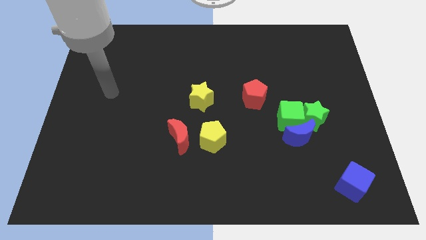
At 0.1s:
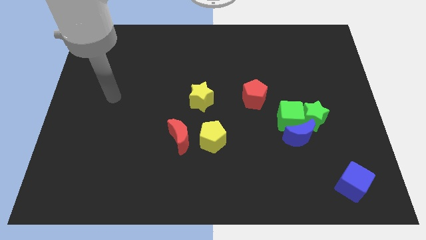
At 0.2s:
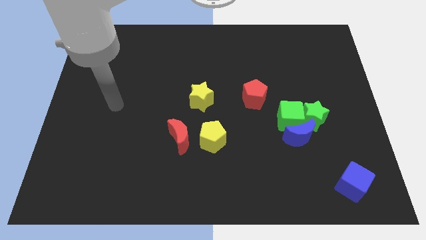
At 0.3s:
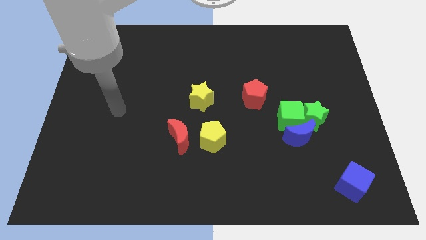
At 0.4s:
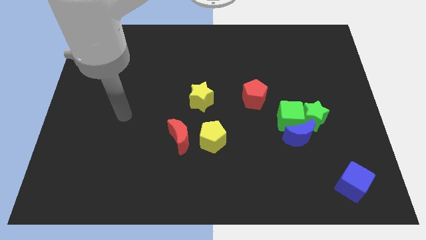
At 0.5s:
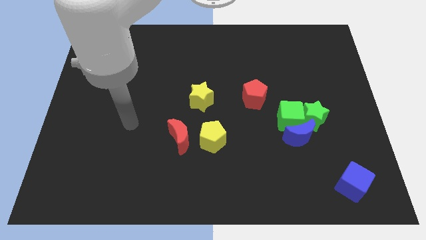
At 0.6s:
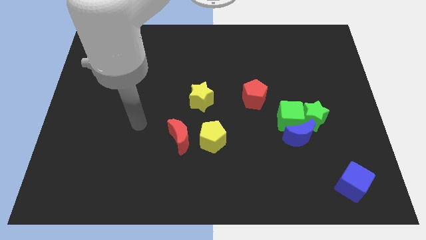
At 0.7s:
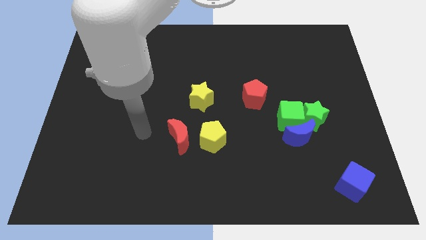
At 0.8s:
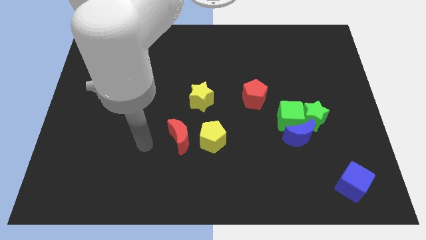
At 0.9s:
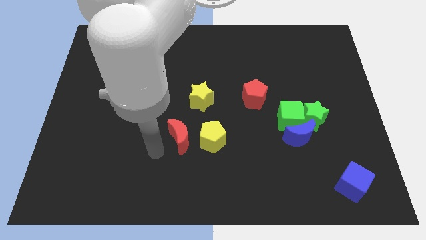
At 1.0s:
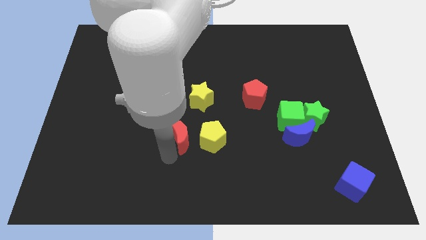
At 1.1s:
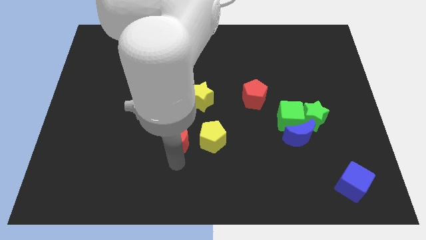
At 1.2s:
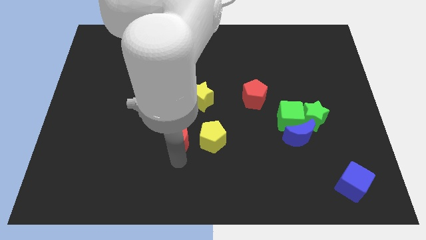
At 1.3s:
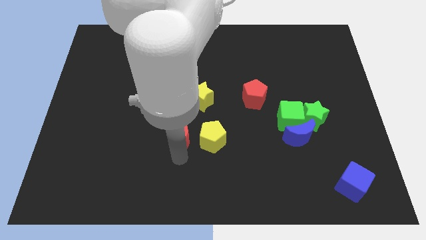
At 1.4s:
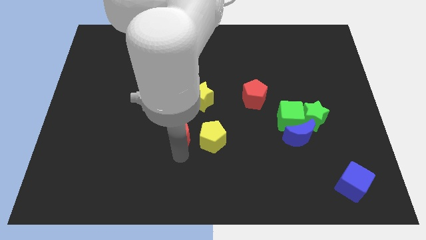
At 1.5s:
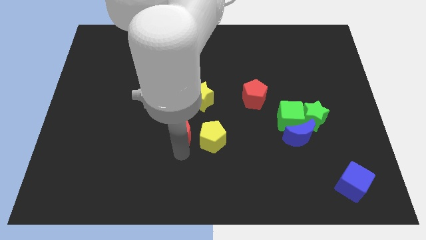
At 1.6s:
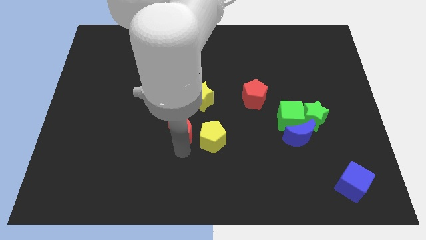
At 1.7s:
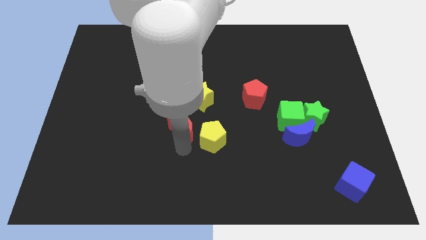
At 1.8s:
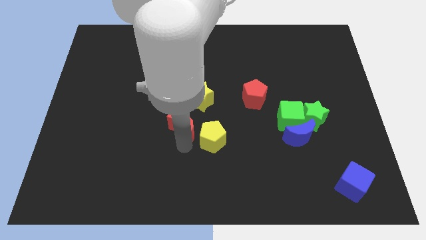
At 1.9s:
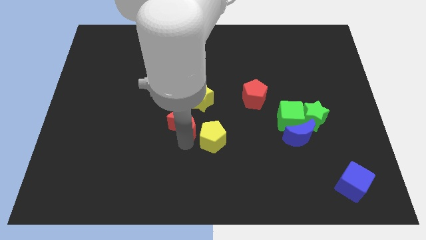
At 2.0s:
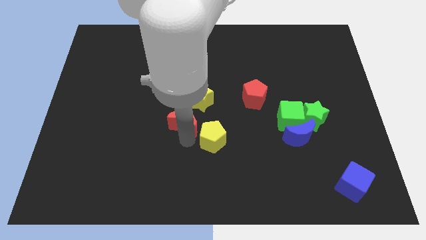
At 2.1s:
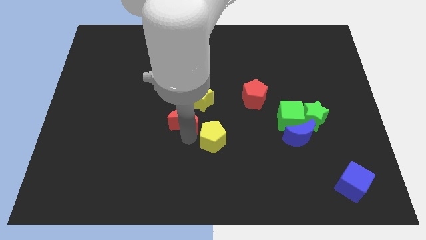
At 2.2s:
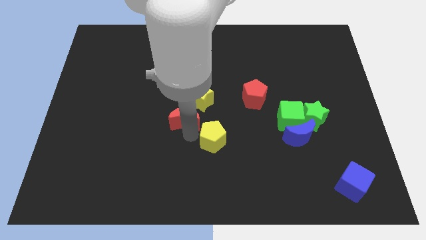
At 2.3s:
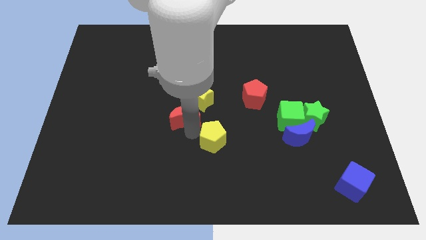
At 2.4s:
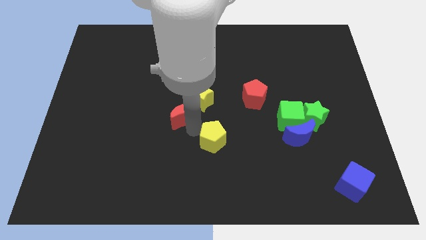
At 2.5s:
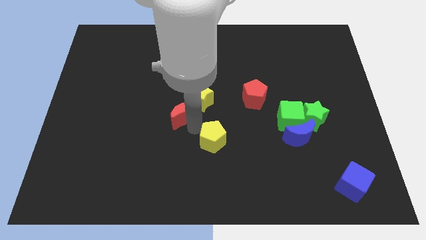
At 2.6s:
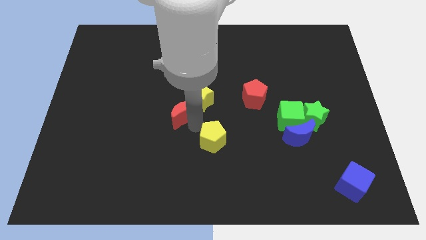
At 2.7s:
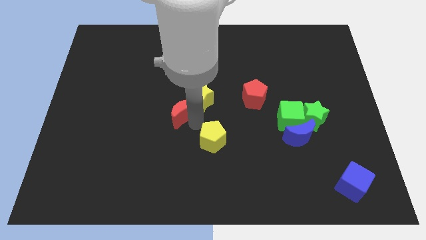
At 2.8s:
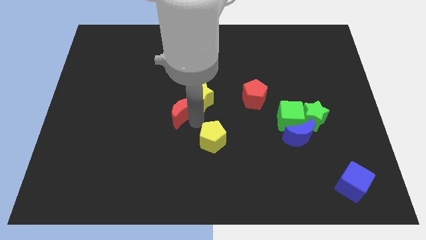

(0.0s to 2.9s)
slide the red moon a bit upwards

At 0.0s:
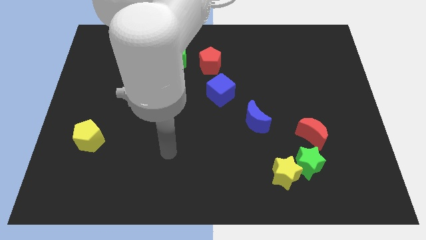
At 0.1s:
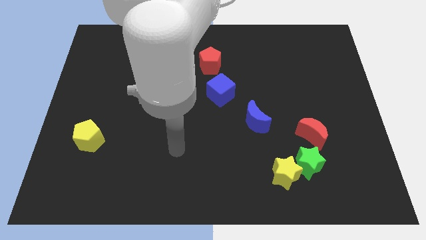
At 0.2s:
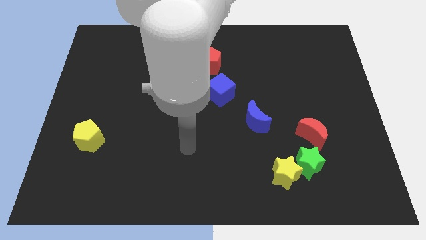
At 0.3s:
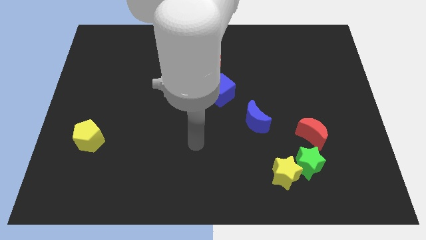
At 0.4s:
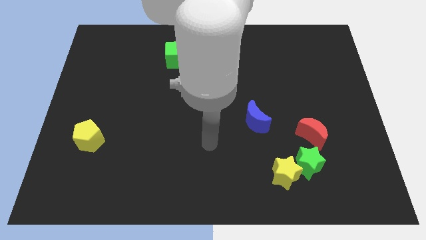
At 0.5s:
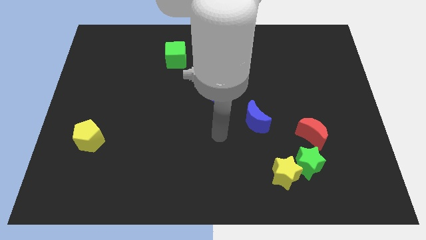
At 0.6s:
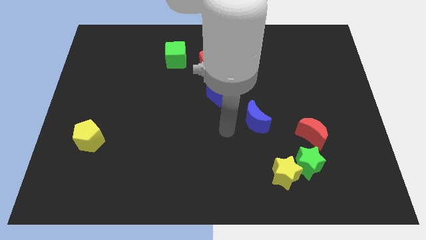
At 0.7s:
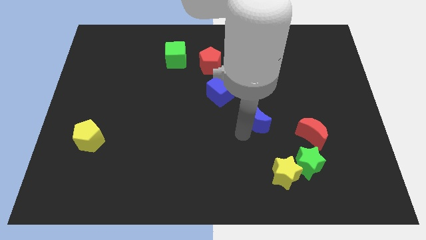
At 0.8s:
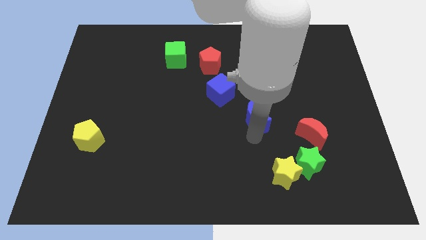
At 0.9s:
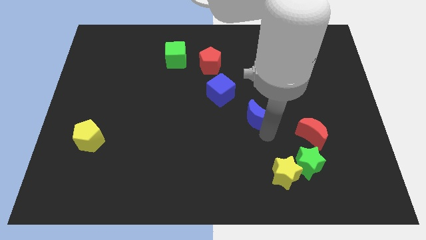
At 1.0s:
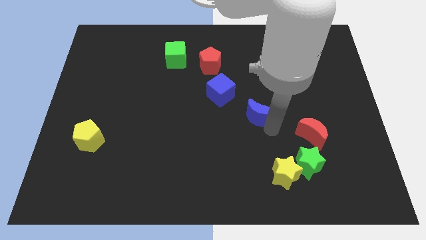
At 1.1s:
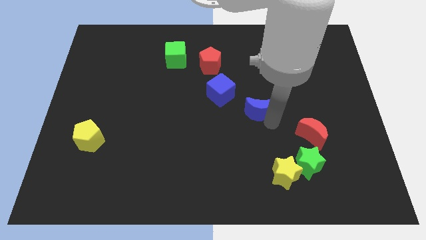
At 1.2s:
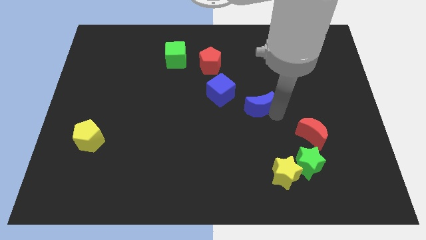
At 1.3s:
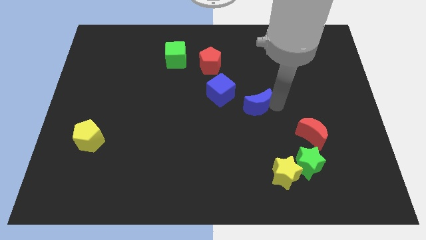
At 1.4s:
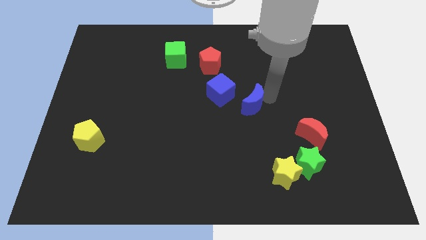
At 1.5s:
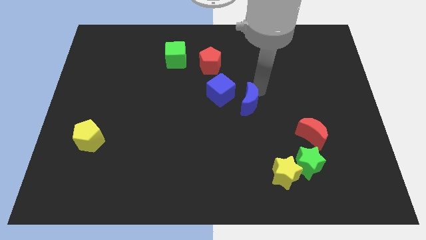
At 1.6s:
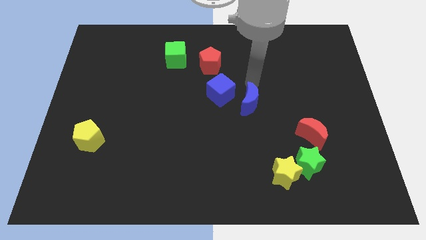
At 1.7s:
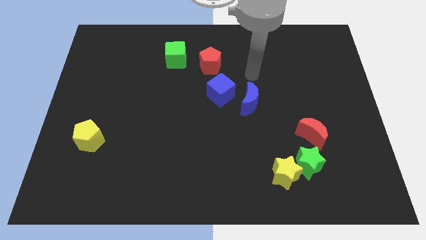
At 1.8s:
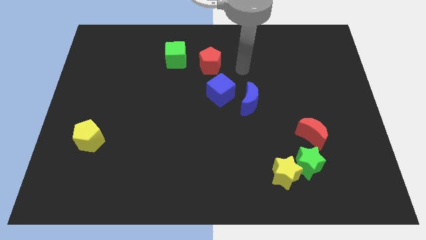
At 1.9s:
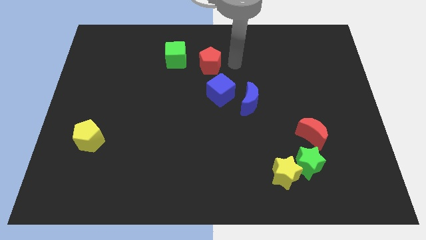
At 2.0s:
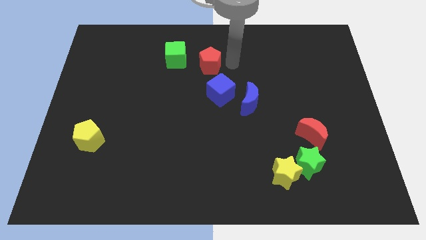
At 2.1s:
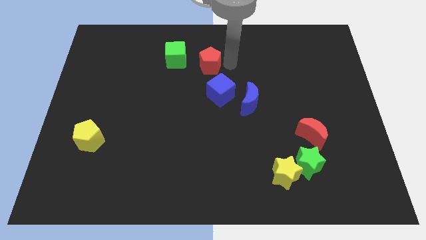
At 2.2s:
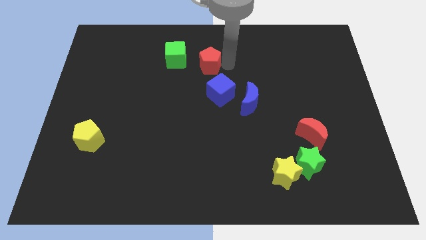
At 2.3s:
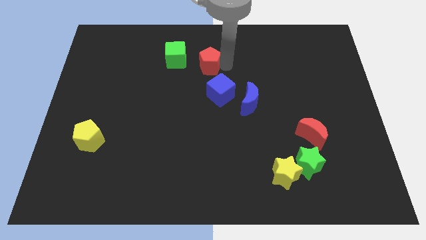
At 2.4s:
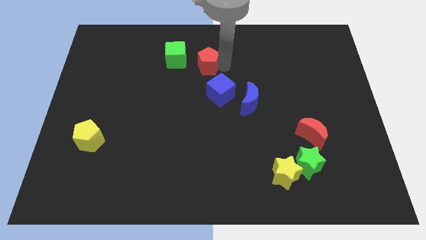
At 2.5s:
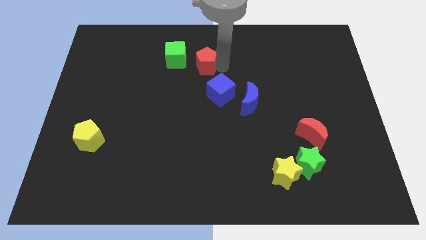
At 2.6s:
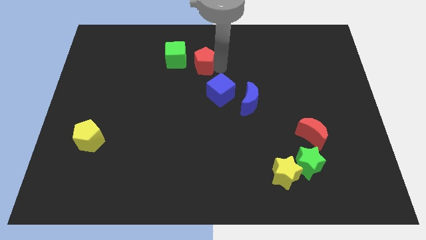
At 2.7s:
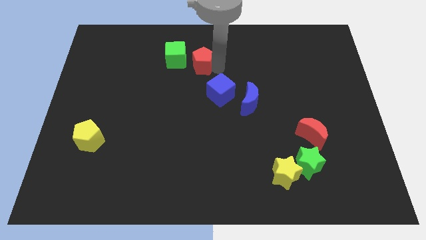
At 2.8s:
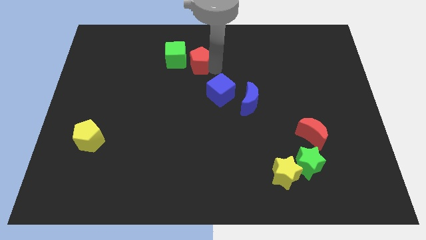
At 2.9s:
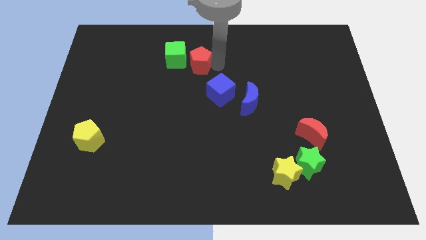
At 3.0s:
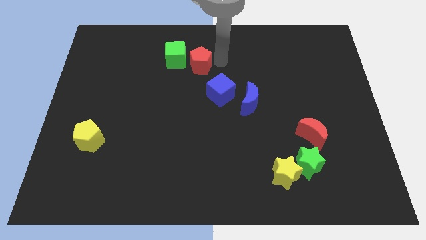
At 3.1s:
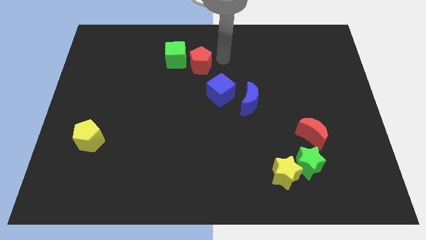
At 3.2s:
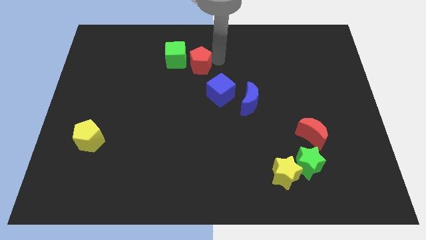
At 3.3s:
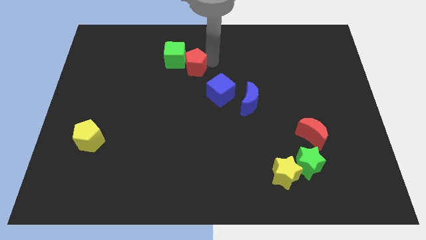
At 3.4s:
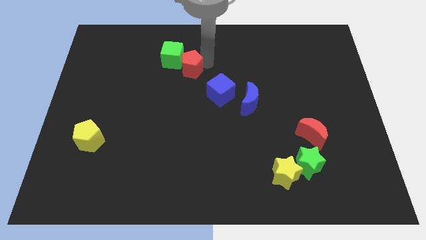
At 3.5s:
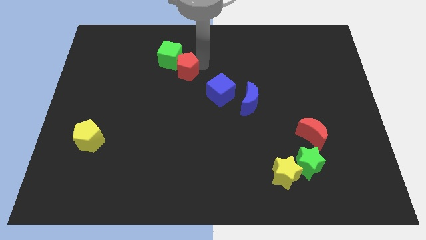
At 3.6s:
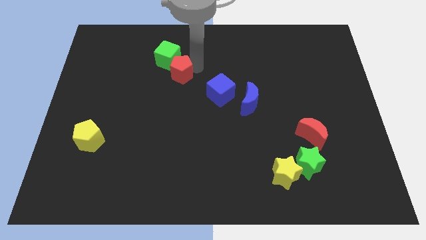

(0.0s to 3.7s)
slide the red pentagon somewhat left

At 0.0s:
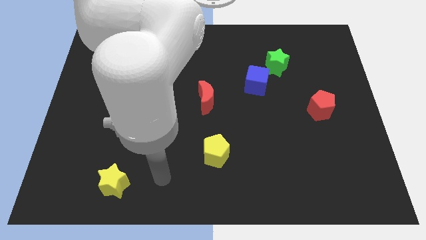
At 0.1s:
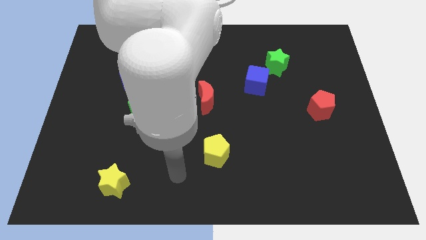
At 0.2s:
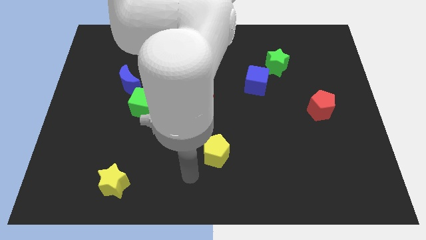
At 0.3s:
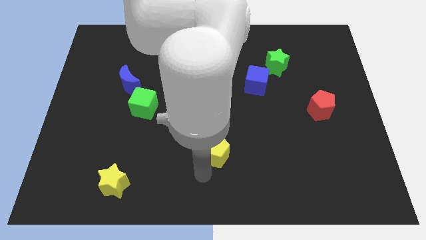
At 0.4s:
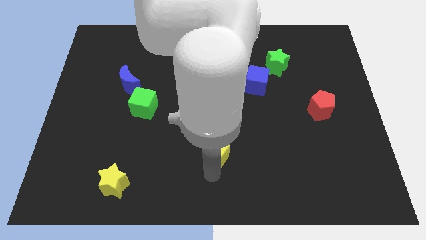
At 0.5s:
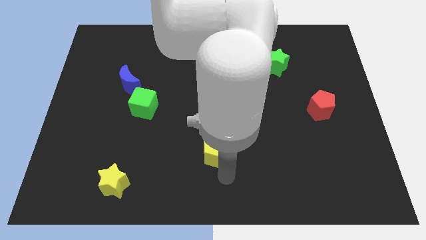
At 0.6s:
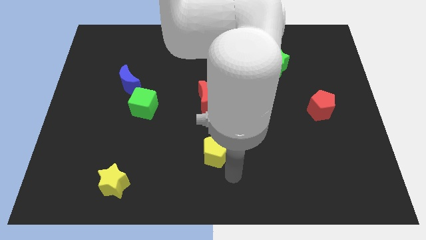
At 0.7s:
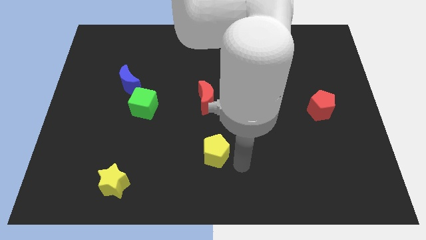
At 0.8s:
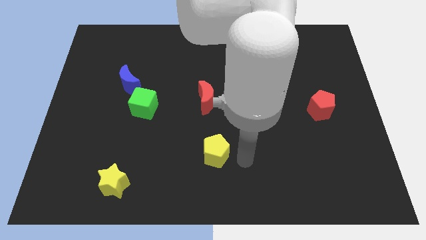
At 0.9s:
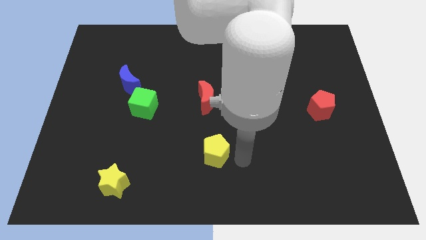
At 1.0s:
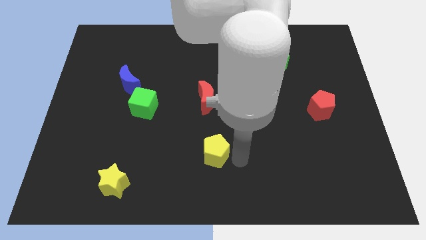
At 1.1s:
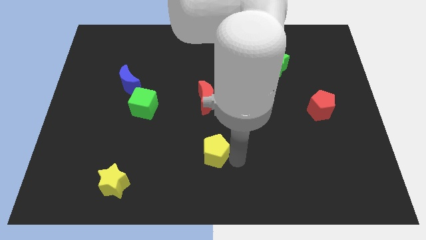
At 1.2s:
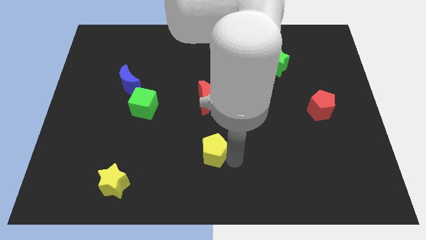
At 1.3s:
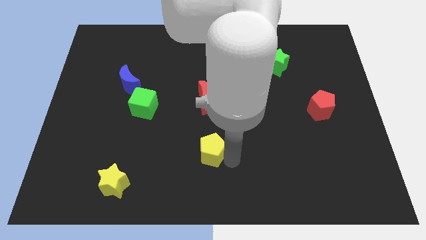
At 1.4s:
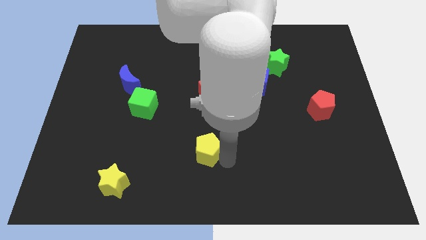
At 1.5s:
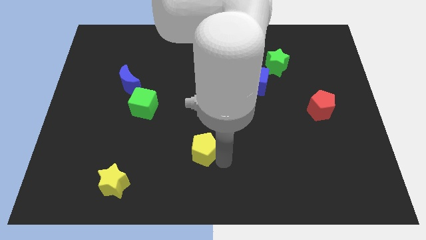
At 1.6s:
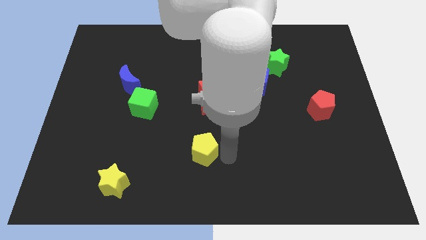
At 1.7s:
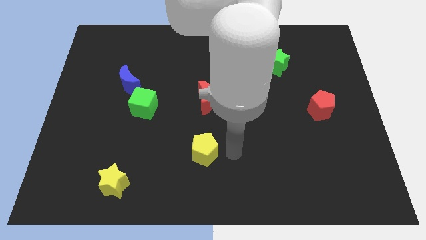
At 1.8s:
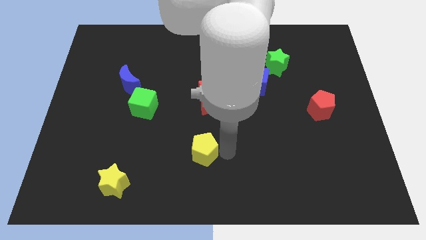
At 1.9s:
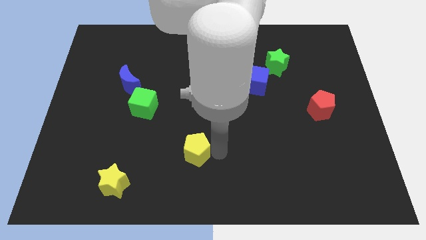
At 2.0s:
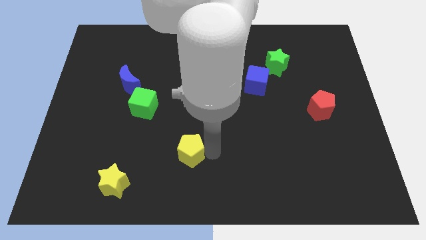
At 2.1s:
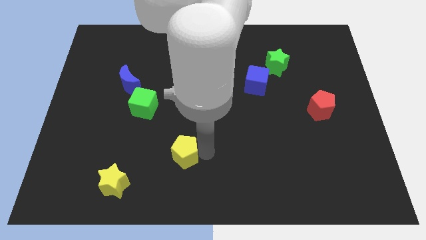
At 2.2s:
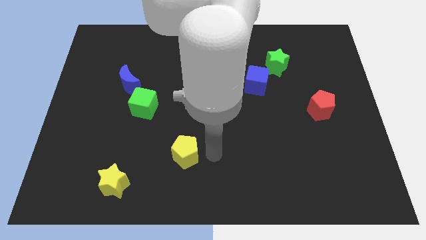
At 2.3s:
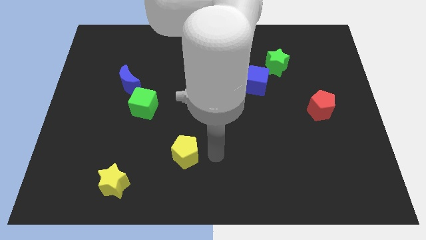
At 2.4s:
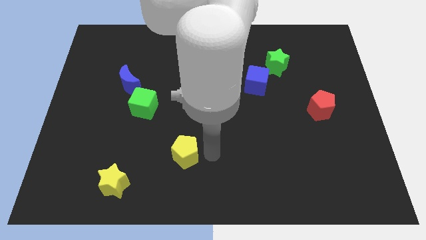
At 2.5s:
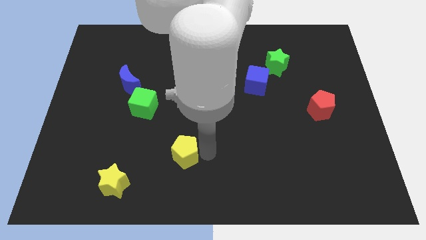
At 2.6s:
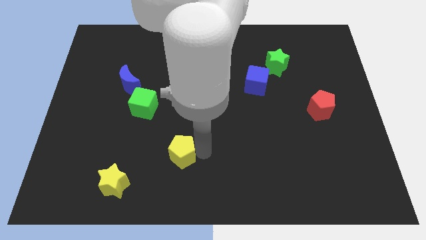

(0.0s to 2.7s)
slightly move the yellow pentagon left
